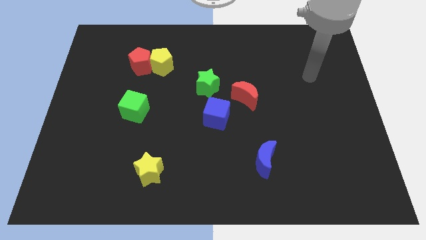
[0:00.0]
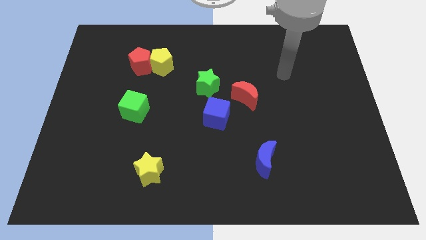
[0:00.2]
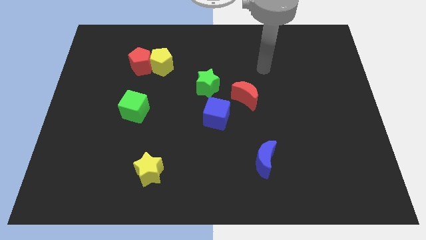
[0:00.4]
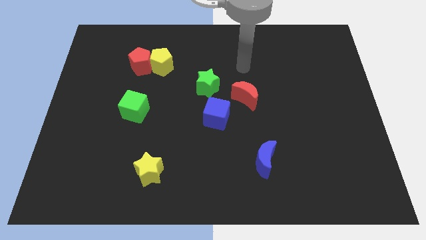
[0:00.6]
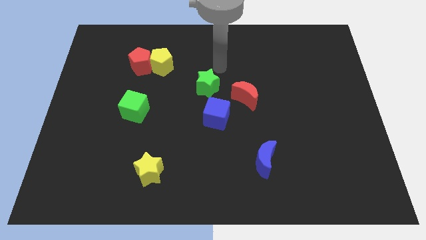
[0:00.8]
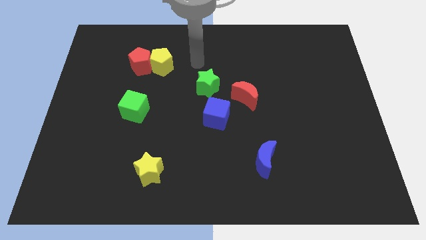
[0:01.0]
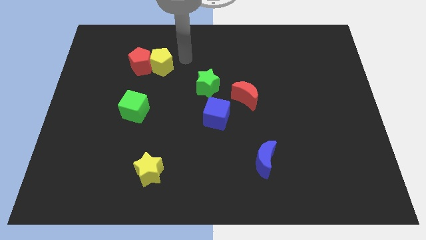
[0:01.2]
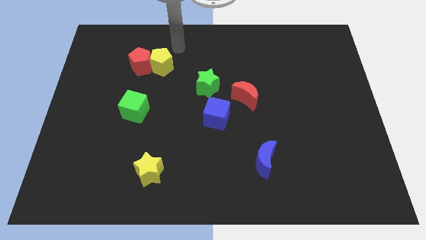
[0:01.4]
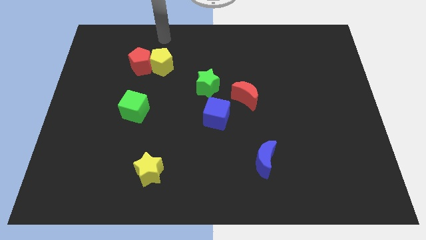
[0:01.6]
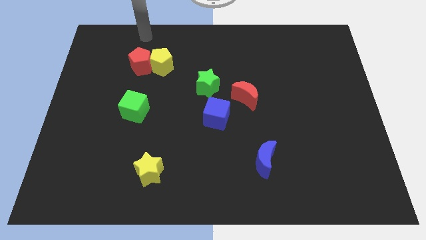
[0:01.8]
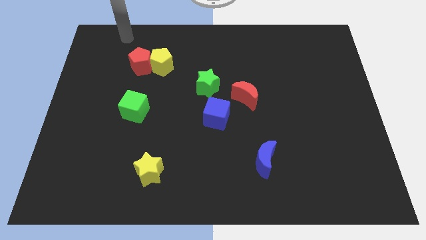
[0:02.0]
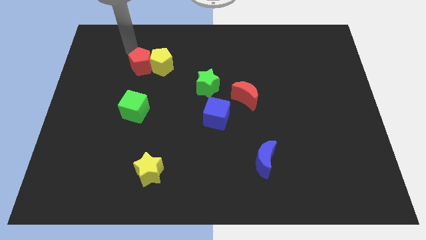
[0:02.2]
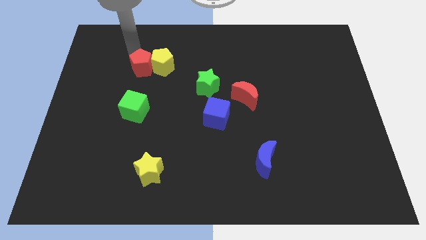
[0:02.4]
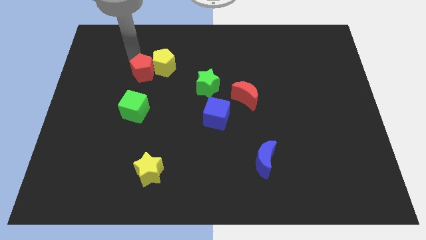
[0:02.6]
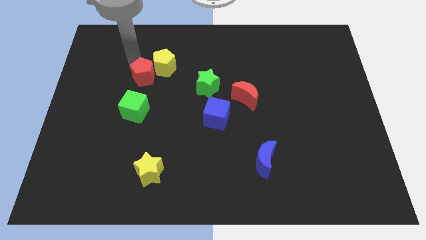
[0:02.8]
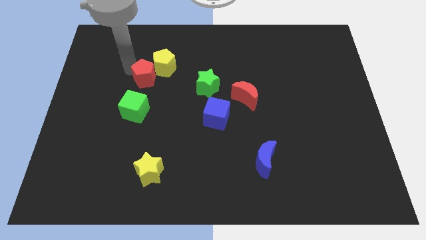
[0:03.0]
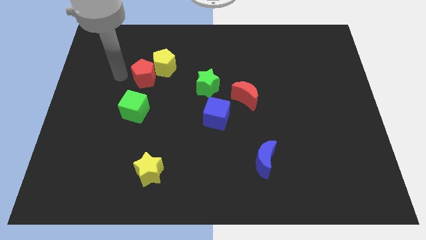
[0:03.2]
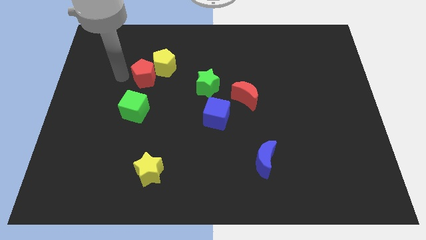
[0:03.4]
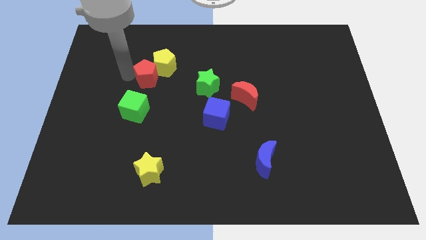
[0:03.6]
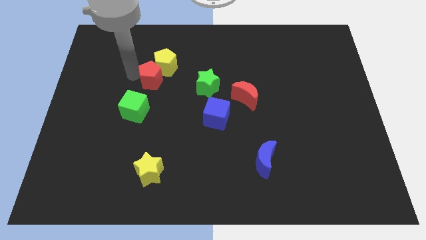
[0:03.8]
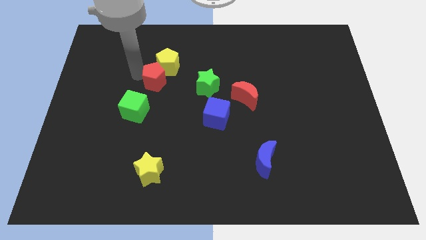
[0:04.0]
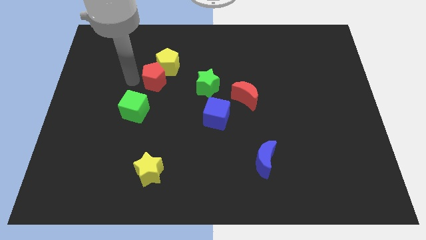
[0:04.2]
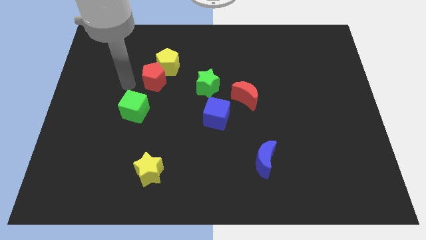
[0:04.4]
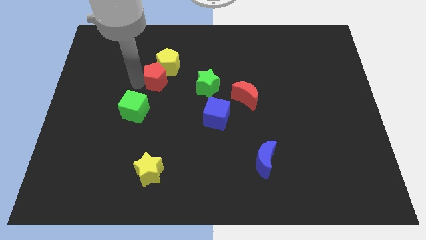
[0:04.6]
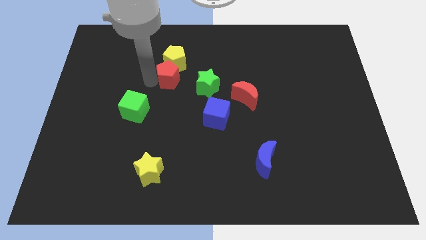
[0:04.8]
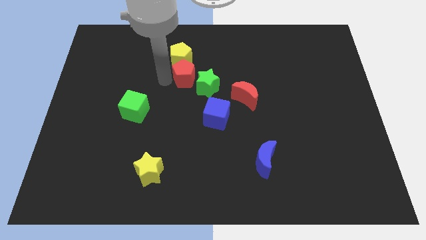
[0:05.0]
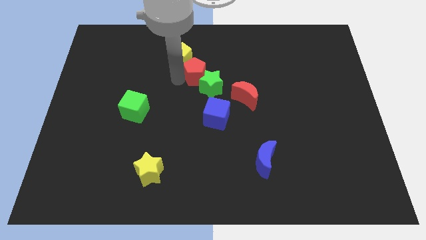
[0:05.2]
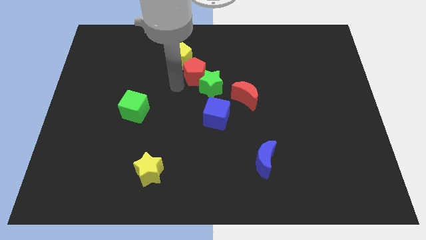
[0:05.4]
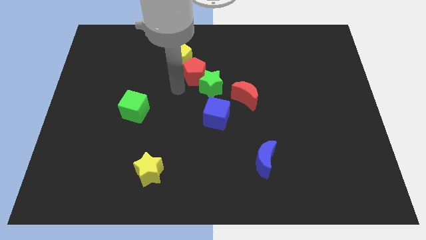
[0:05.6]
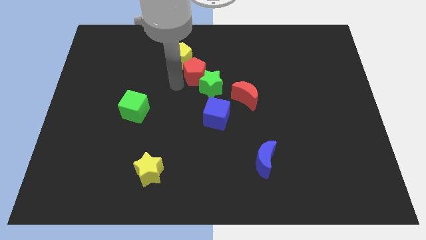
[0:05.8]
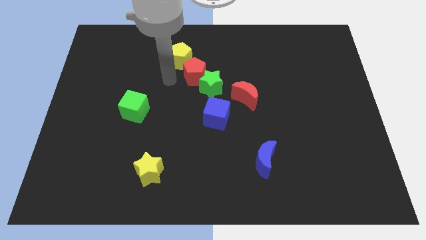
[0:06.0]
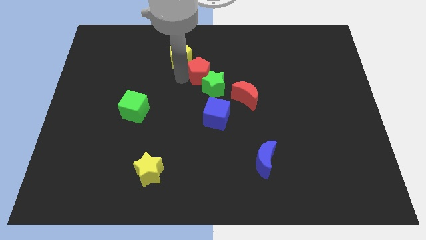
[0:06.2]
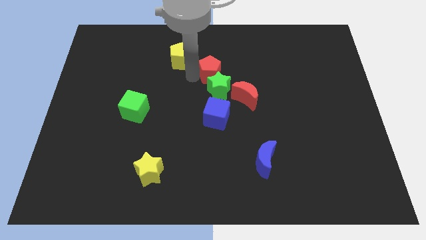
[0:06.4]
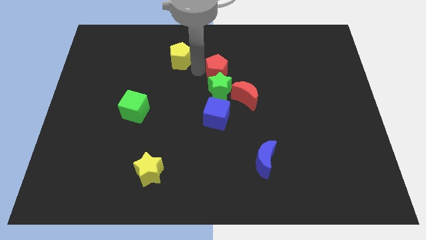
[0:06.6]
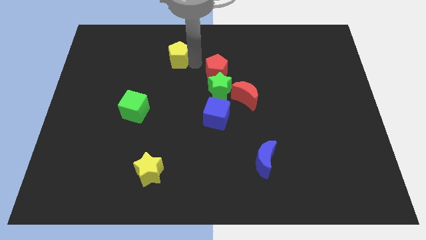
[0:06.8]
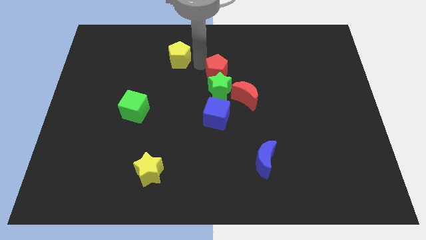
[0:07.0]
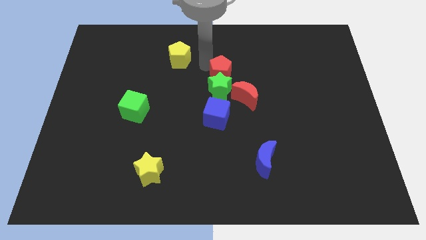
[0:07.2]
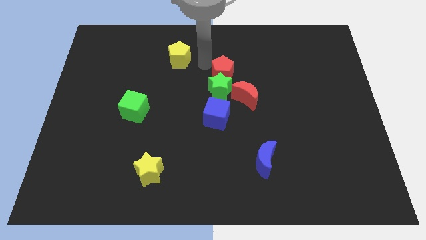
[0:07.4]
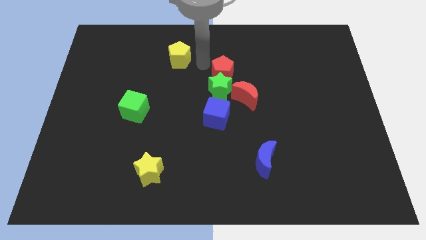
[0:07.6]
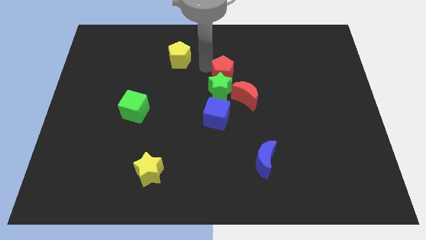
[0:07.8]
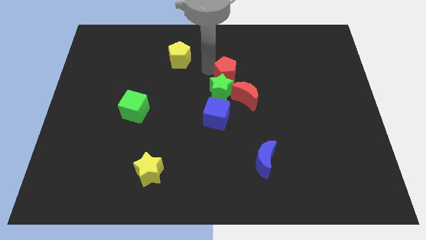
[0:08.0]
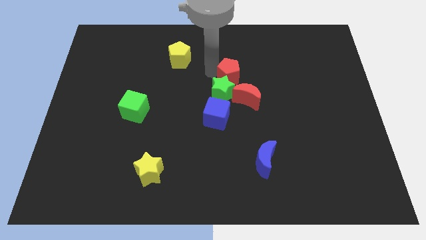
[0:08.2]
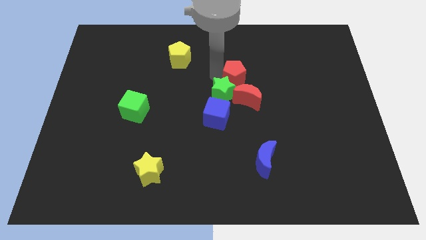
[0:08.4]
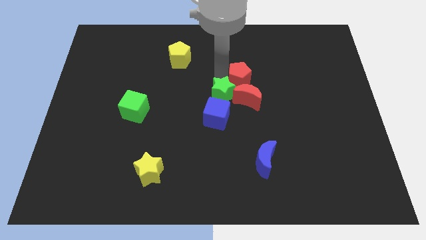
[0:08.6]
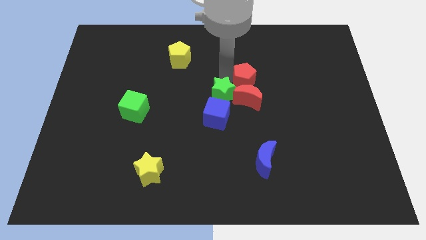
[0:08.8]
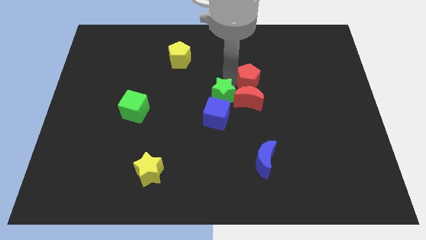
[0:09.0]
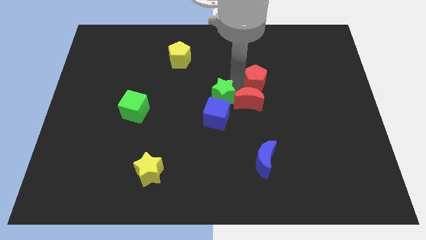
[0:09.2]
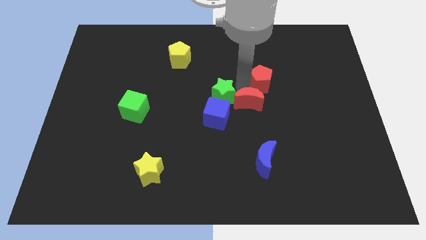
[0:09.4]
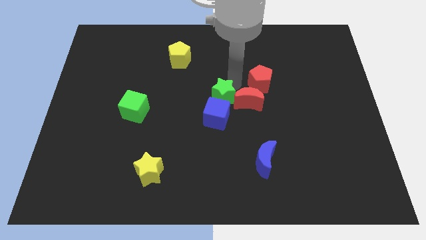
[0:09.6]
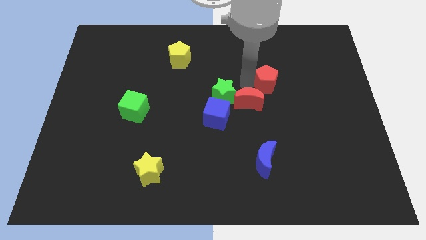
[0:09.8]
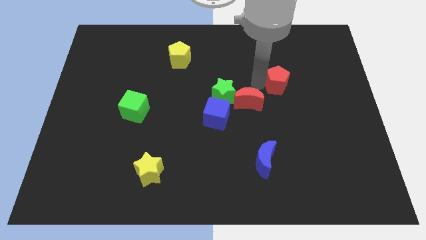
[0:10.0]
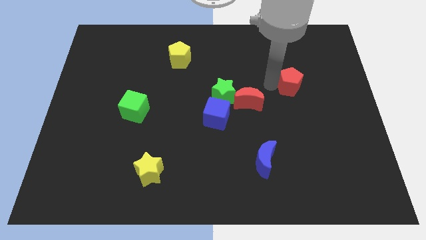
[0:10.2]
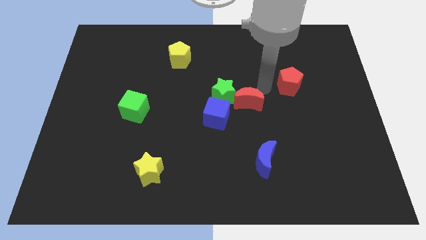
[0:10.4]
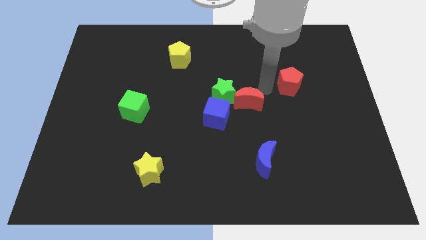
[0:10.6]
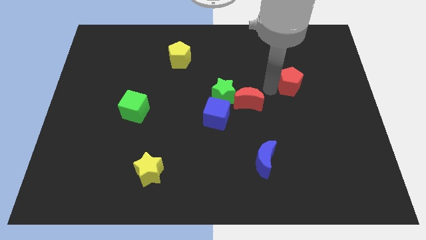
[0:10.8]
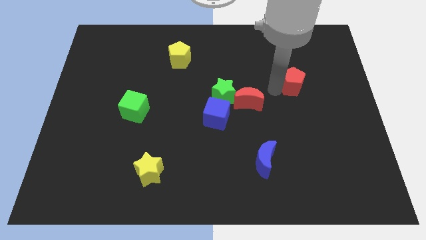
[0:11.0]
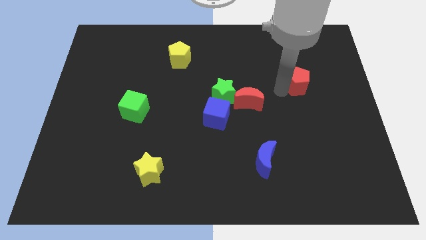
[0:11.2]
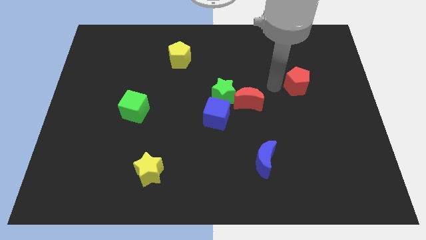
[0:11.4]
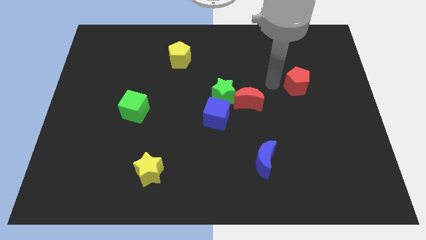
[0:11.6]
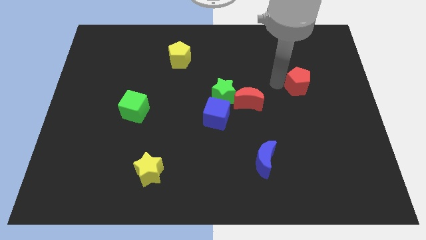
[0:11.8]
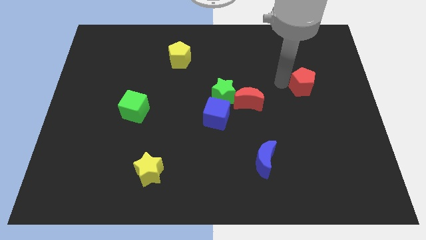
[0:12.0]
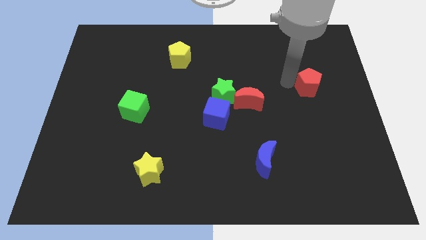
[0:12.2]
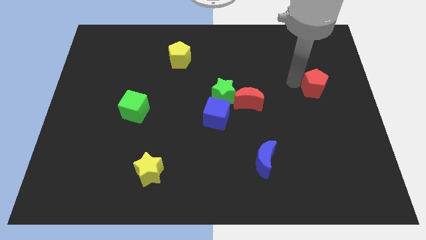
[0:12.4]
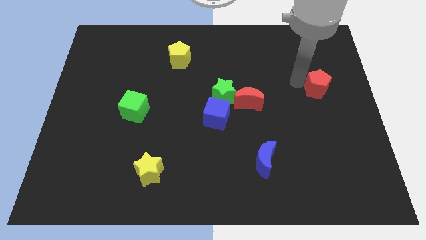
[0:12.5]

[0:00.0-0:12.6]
move the red pentagon to the center right
